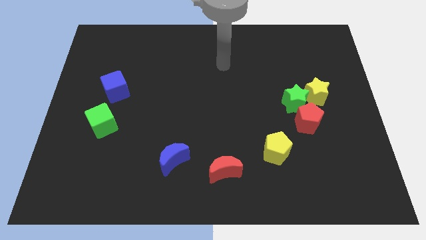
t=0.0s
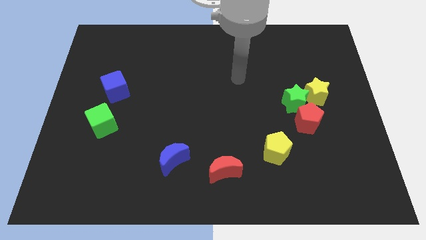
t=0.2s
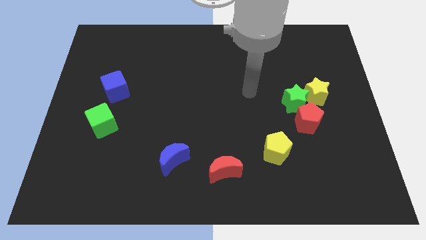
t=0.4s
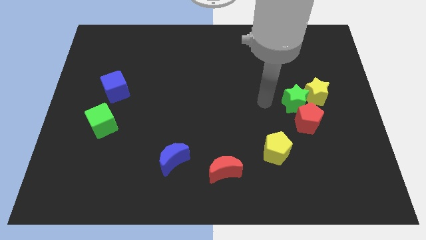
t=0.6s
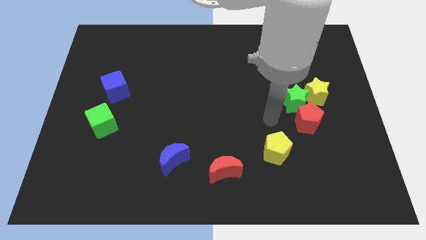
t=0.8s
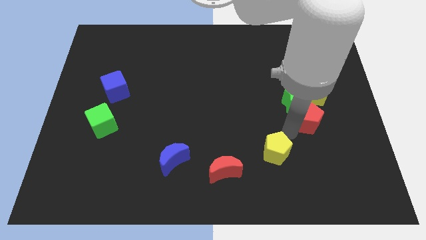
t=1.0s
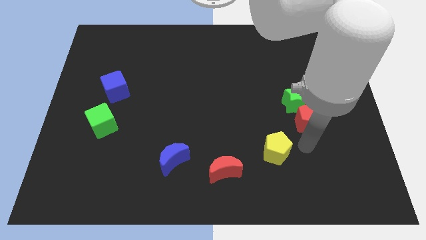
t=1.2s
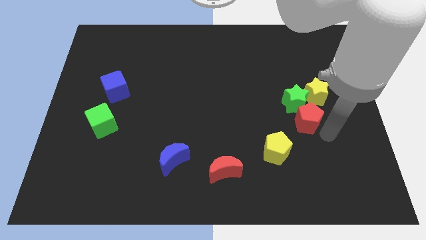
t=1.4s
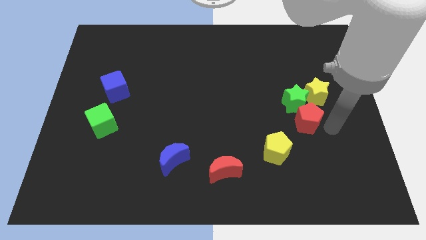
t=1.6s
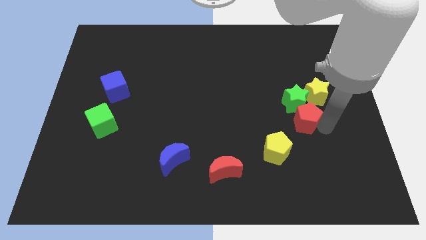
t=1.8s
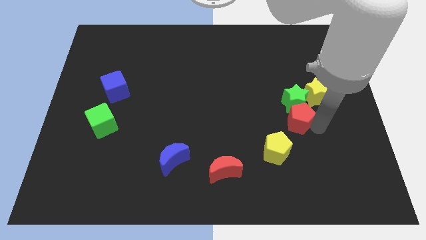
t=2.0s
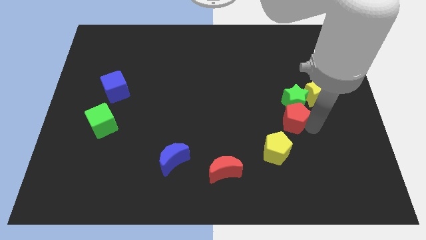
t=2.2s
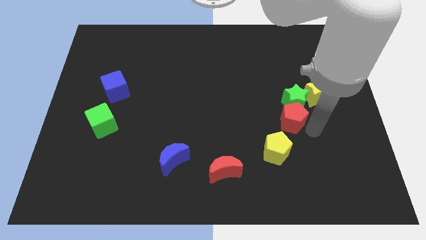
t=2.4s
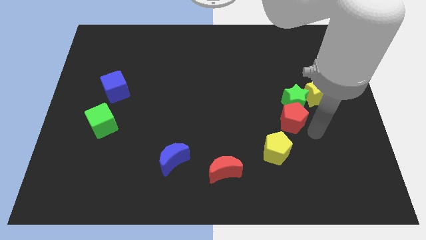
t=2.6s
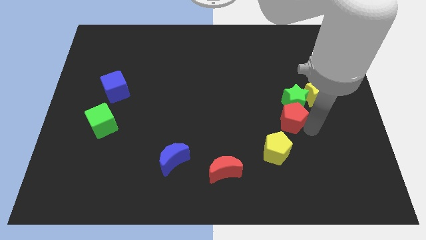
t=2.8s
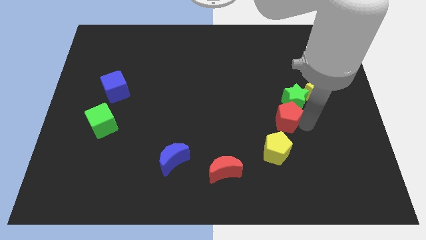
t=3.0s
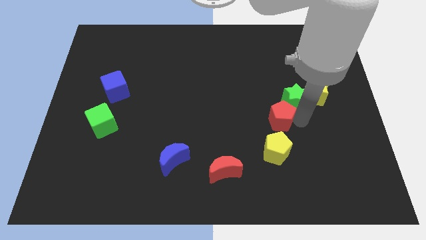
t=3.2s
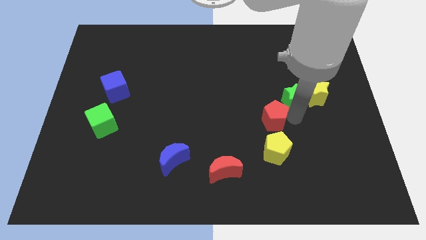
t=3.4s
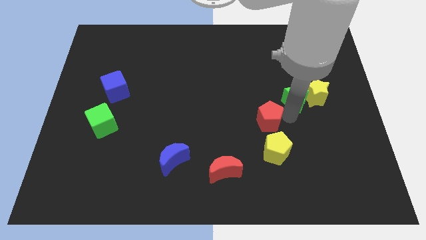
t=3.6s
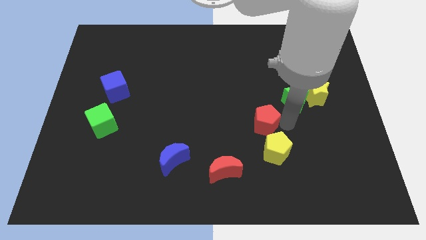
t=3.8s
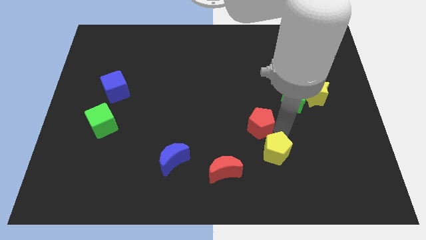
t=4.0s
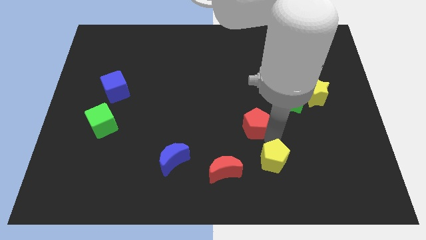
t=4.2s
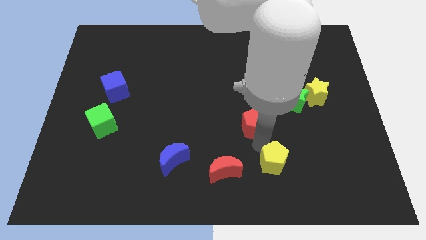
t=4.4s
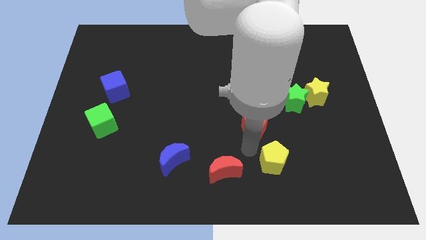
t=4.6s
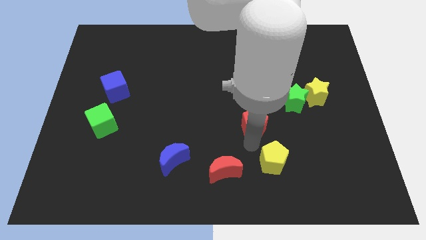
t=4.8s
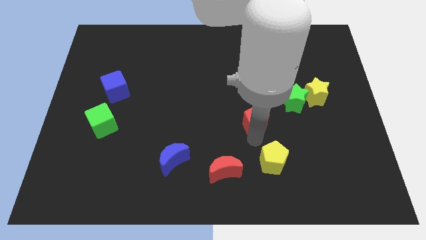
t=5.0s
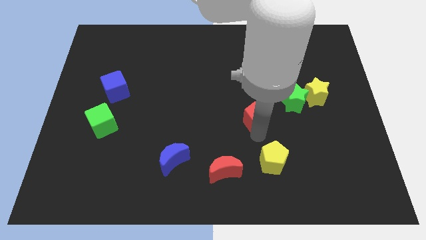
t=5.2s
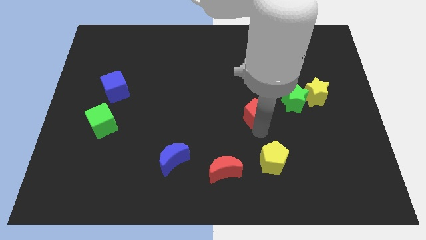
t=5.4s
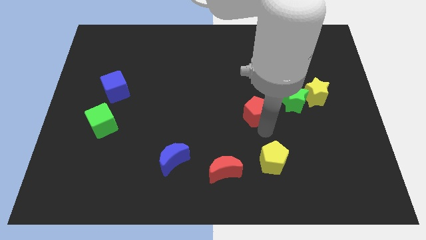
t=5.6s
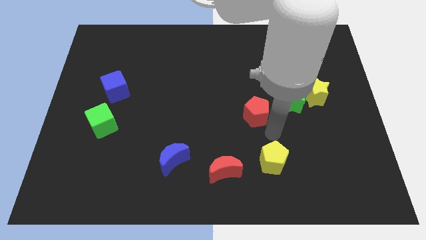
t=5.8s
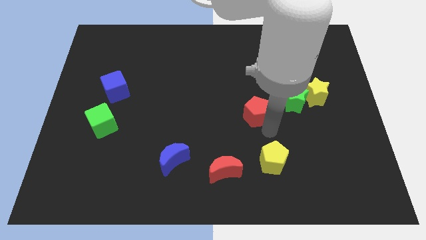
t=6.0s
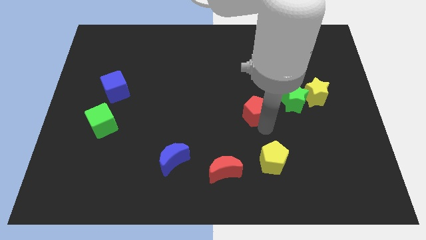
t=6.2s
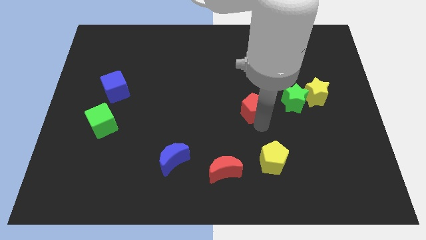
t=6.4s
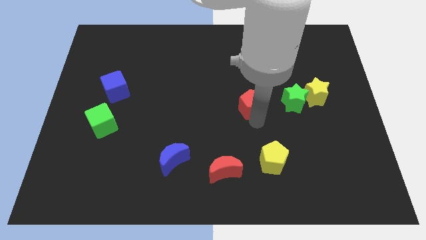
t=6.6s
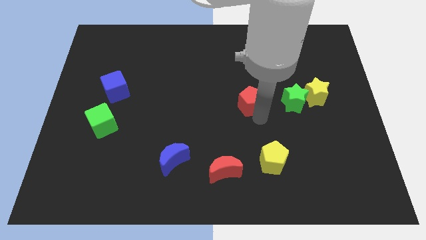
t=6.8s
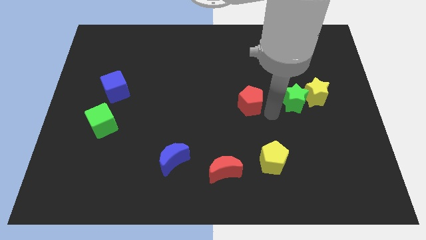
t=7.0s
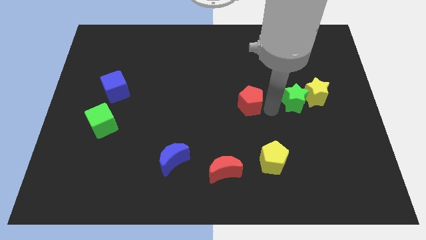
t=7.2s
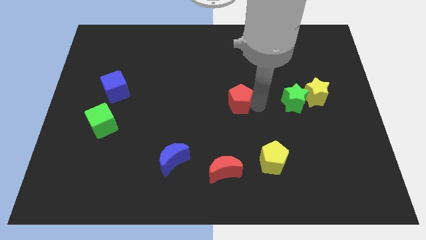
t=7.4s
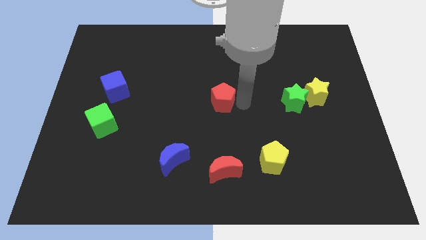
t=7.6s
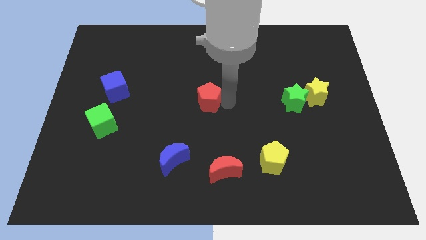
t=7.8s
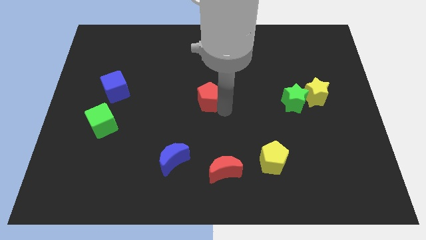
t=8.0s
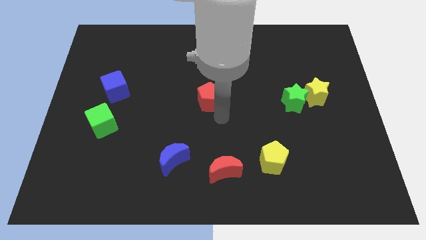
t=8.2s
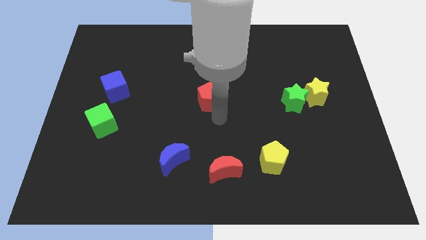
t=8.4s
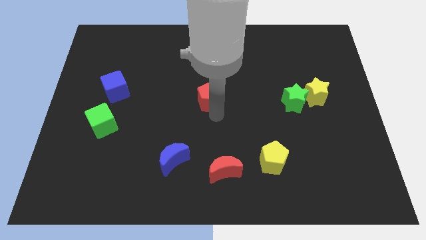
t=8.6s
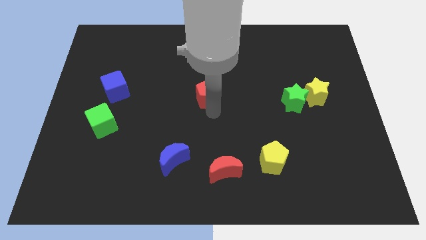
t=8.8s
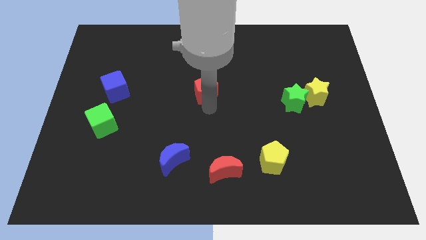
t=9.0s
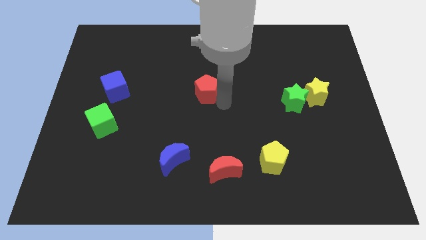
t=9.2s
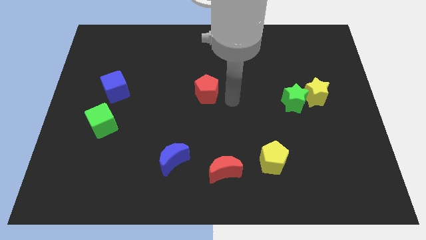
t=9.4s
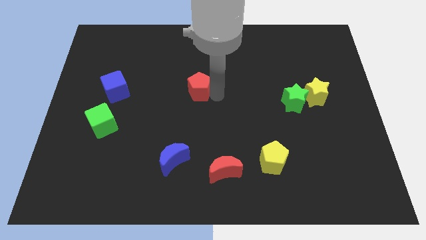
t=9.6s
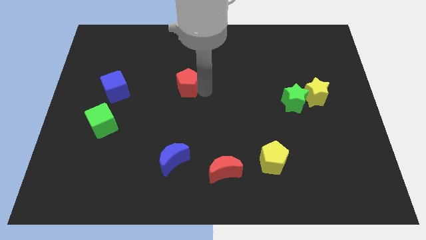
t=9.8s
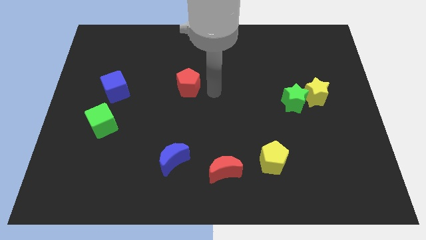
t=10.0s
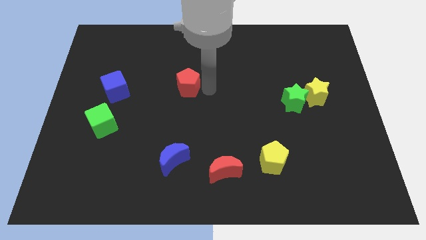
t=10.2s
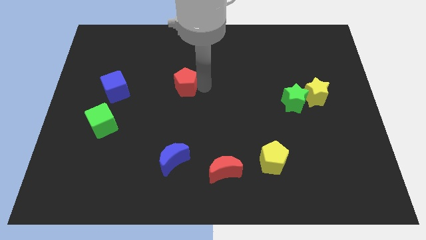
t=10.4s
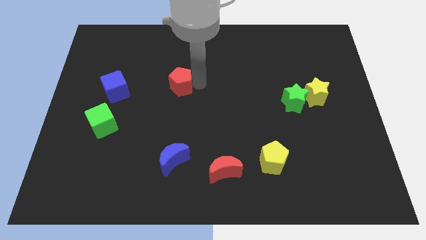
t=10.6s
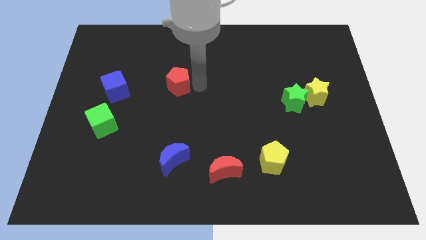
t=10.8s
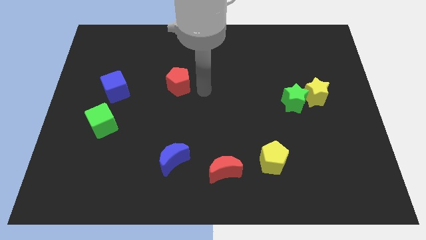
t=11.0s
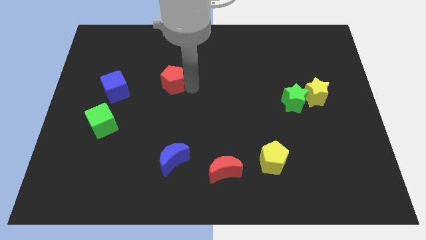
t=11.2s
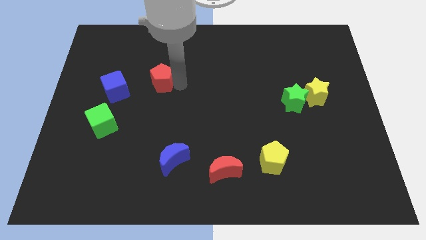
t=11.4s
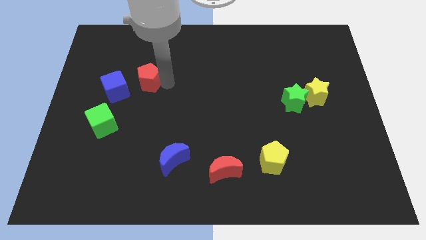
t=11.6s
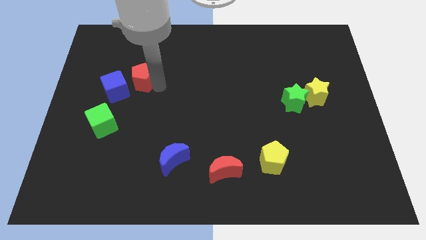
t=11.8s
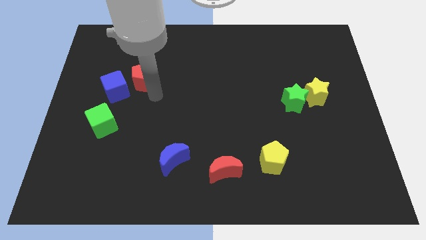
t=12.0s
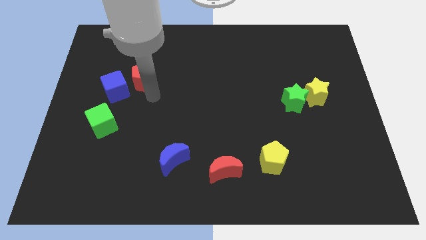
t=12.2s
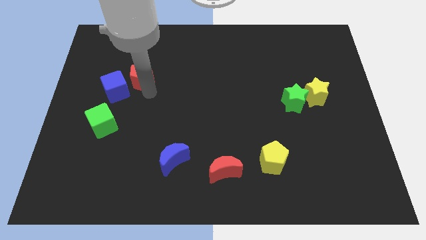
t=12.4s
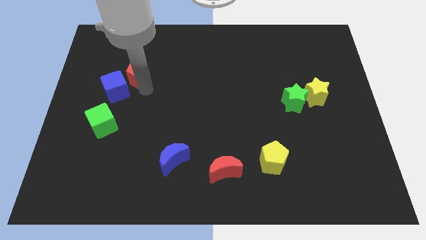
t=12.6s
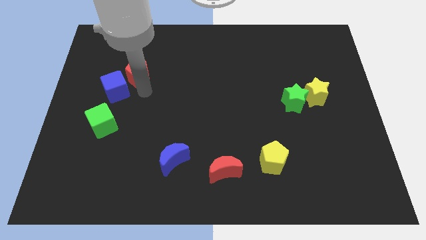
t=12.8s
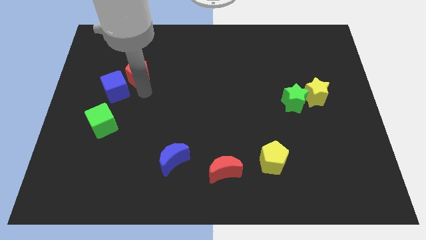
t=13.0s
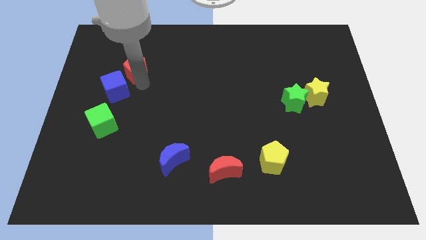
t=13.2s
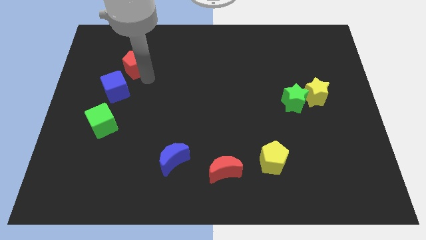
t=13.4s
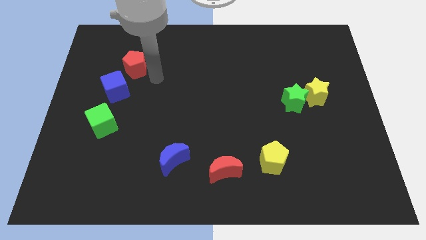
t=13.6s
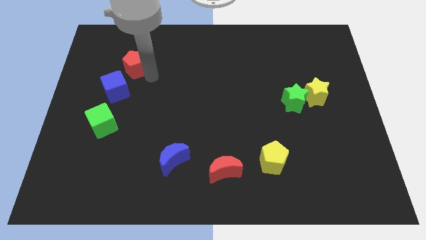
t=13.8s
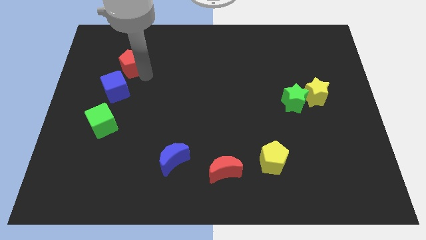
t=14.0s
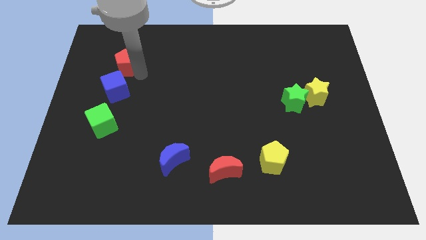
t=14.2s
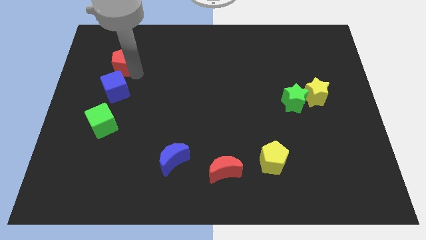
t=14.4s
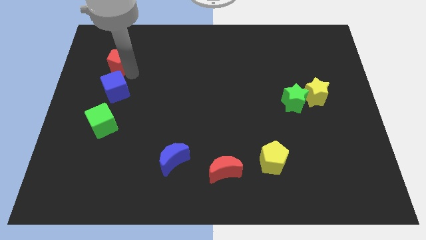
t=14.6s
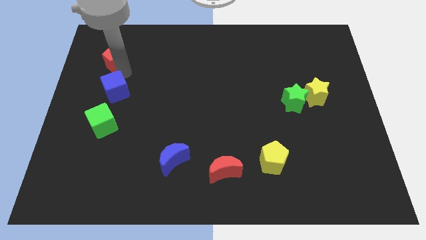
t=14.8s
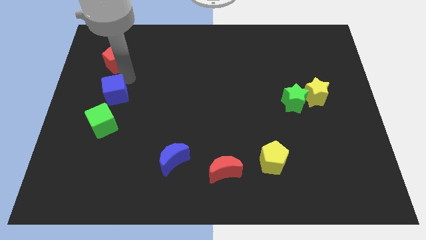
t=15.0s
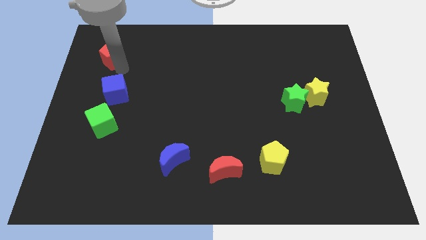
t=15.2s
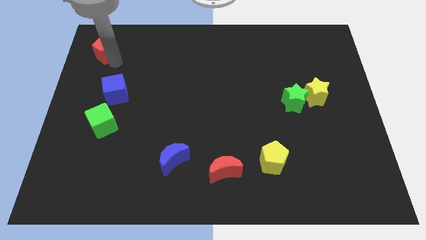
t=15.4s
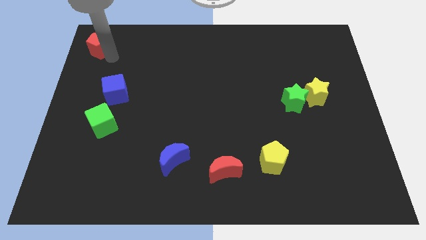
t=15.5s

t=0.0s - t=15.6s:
put the red pentagon to the top left of the board
